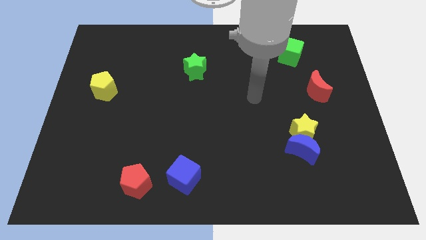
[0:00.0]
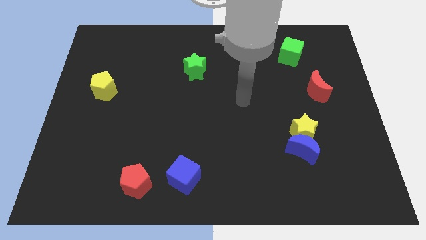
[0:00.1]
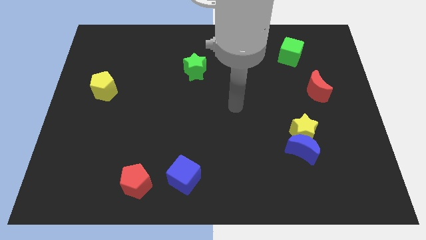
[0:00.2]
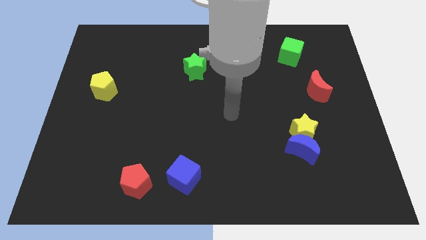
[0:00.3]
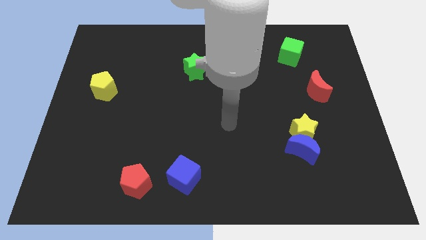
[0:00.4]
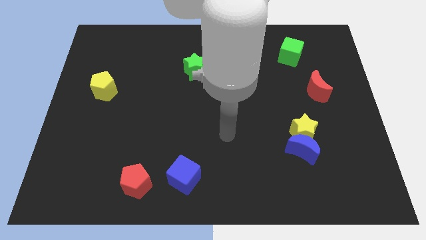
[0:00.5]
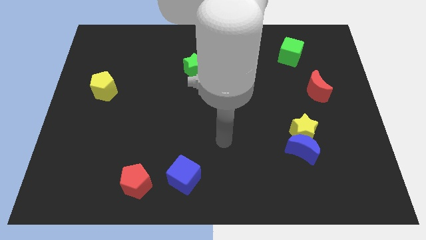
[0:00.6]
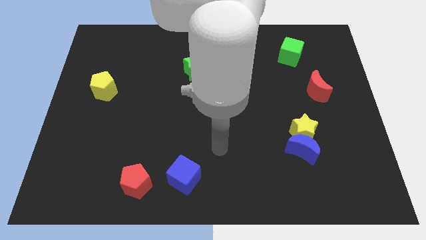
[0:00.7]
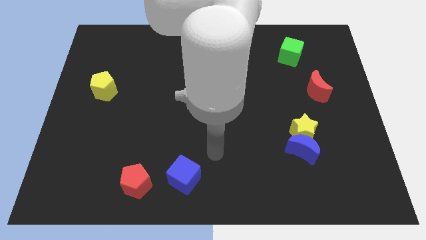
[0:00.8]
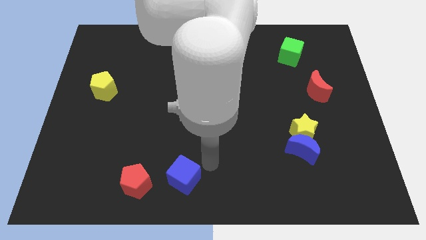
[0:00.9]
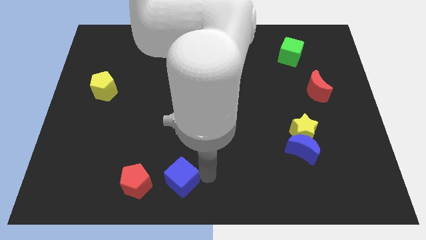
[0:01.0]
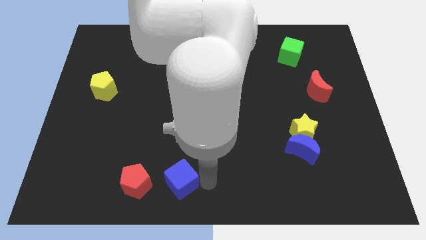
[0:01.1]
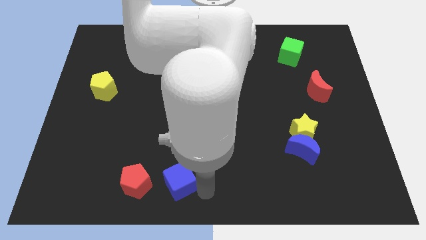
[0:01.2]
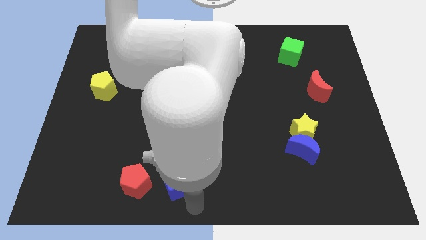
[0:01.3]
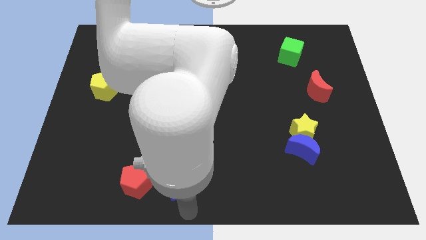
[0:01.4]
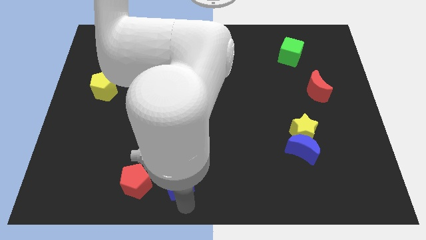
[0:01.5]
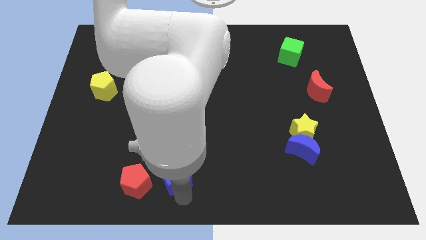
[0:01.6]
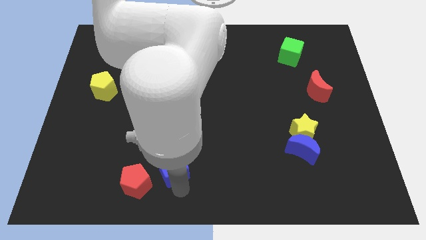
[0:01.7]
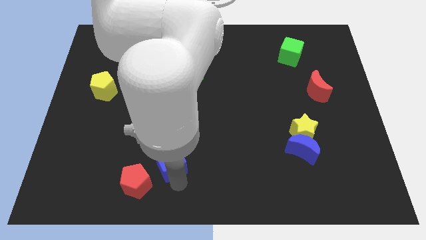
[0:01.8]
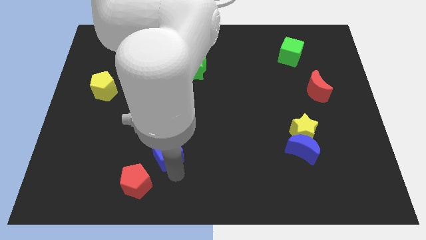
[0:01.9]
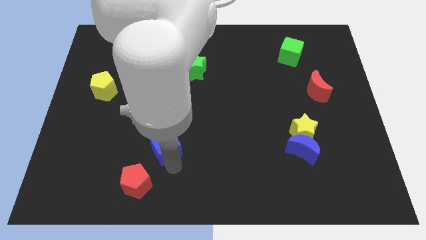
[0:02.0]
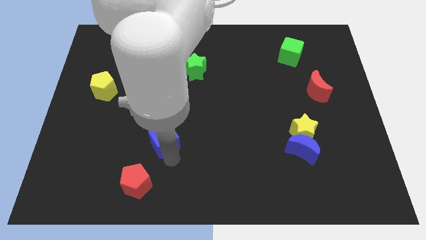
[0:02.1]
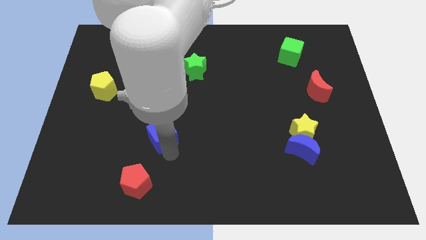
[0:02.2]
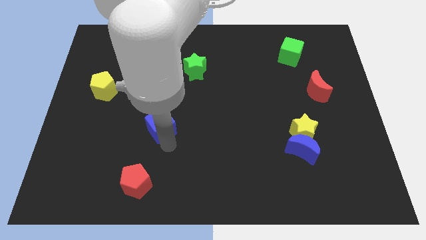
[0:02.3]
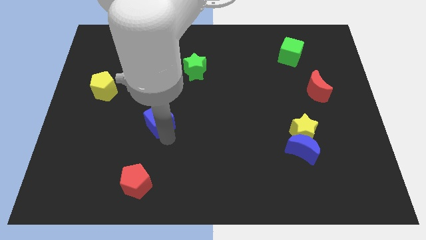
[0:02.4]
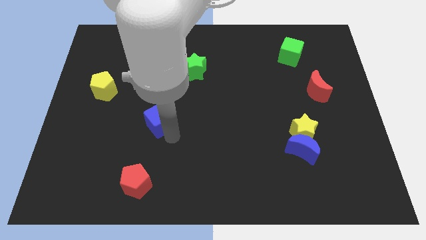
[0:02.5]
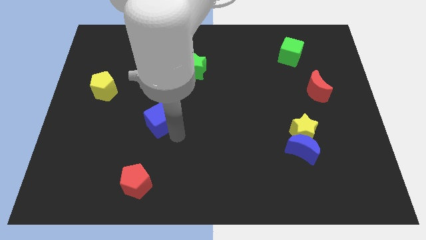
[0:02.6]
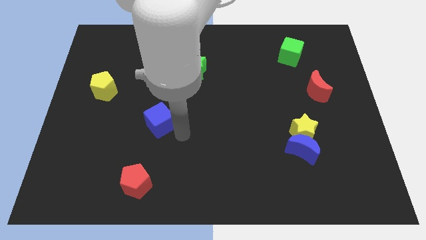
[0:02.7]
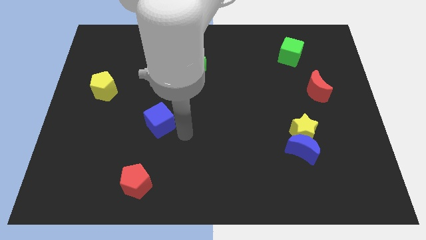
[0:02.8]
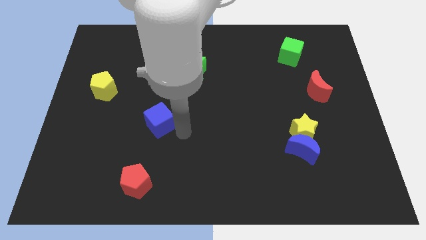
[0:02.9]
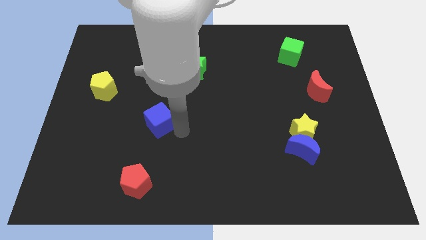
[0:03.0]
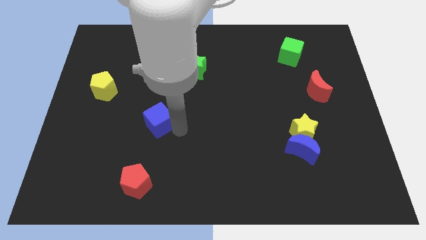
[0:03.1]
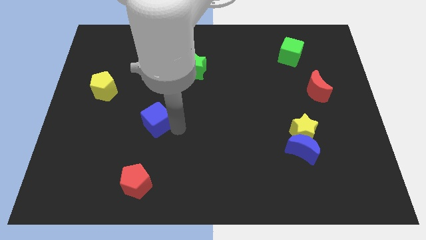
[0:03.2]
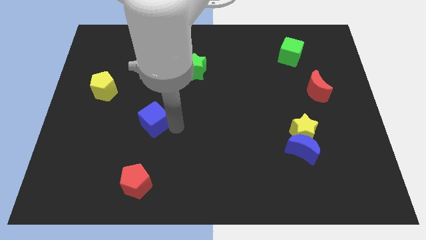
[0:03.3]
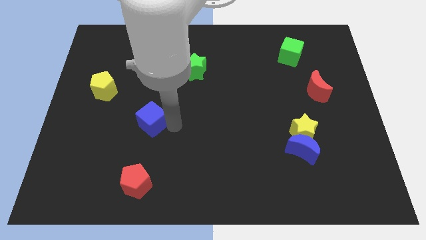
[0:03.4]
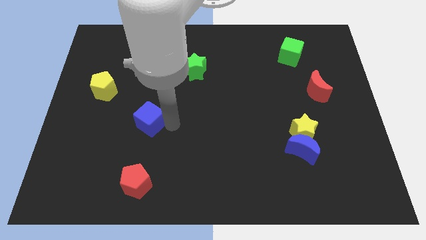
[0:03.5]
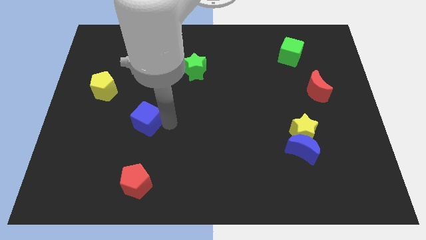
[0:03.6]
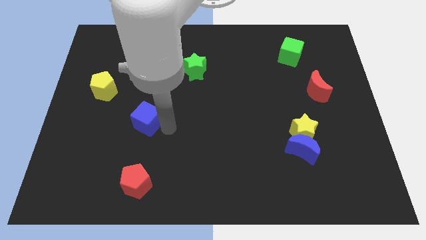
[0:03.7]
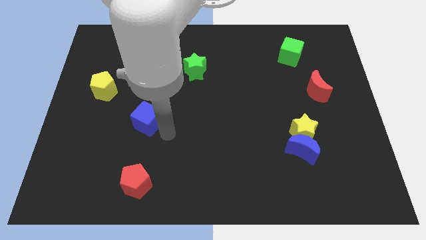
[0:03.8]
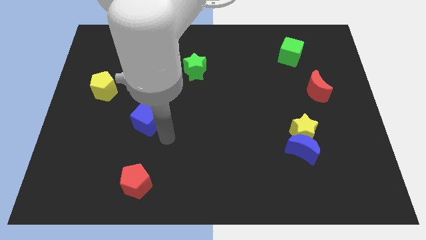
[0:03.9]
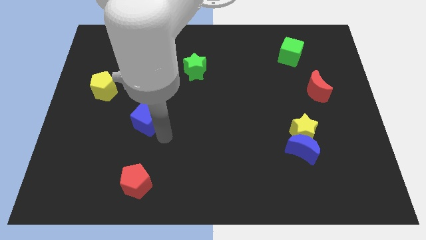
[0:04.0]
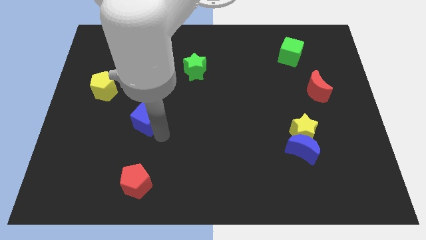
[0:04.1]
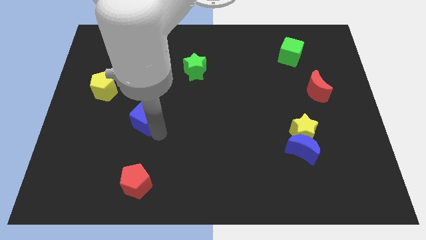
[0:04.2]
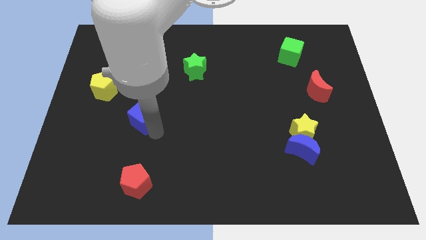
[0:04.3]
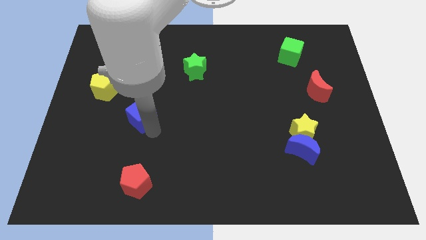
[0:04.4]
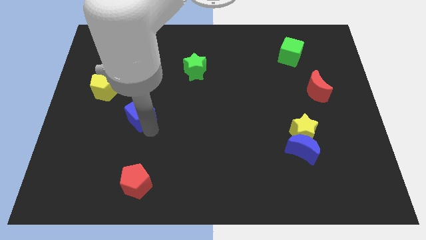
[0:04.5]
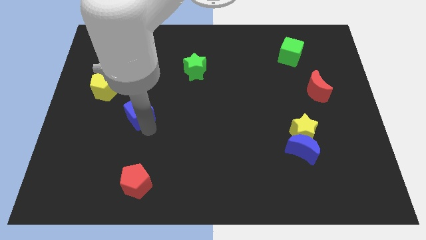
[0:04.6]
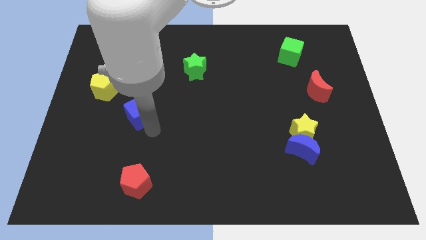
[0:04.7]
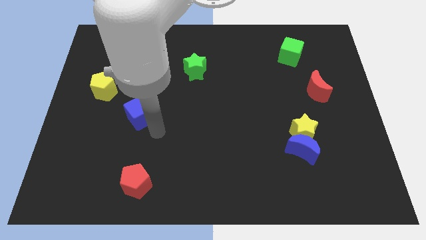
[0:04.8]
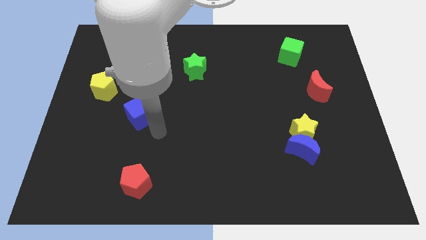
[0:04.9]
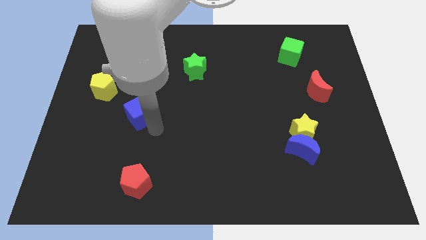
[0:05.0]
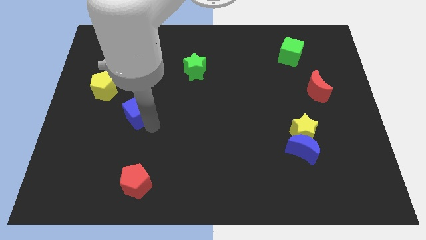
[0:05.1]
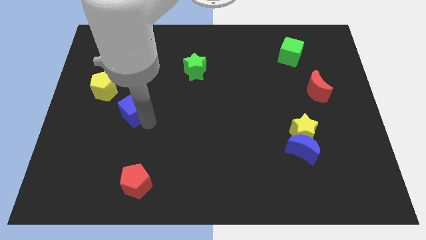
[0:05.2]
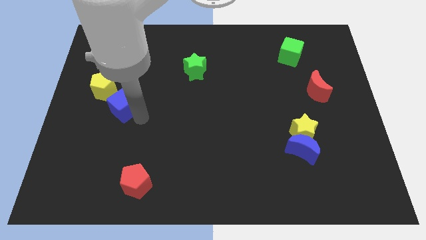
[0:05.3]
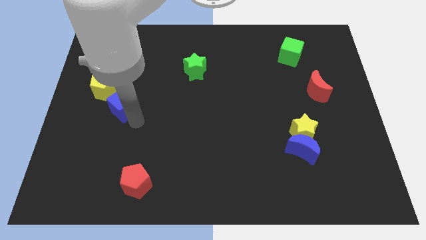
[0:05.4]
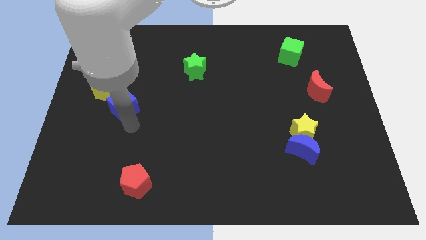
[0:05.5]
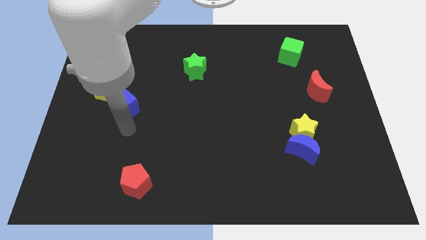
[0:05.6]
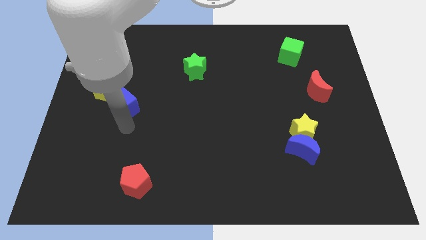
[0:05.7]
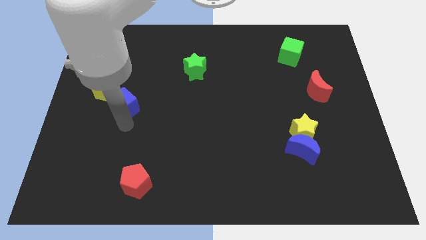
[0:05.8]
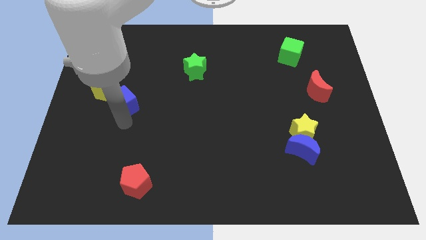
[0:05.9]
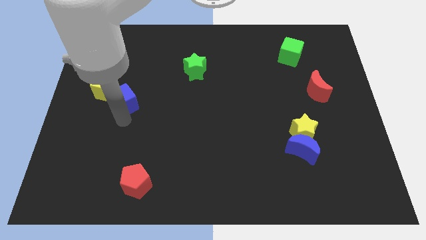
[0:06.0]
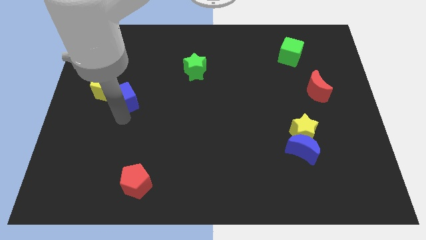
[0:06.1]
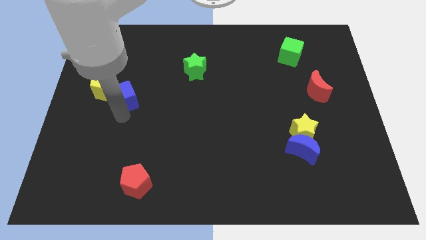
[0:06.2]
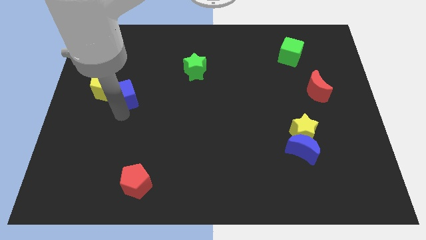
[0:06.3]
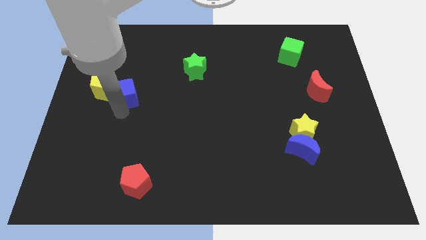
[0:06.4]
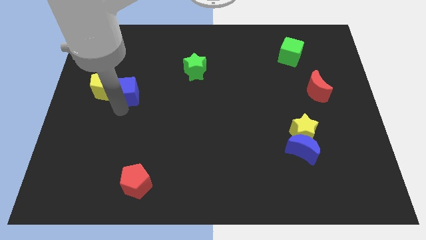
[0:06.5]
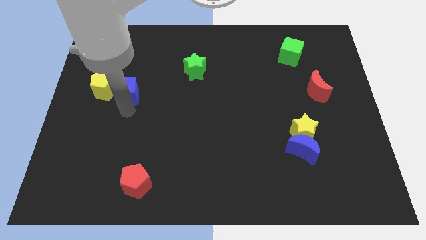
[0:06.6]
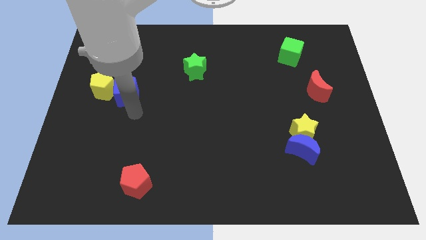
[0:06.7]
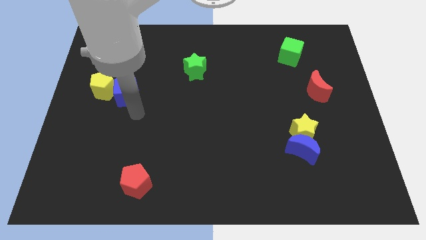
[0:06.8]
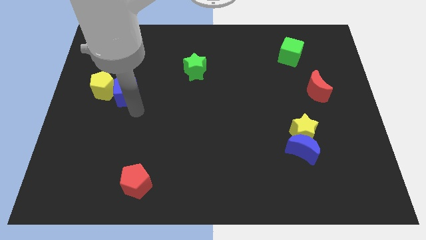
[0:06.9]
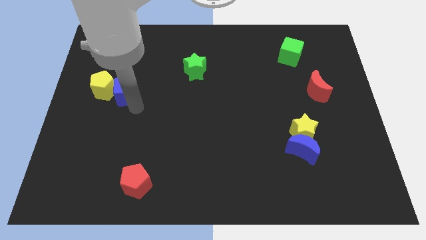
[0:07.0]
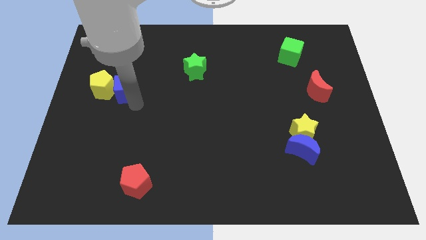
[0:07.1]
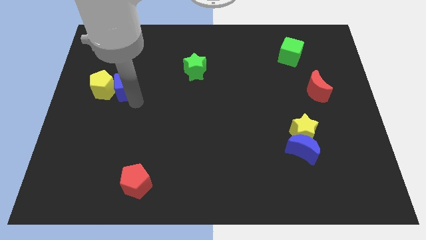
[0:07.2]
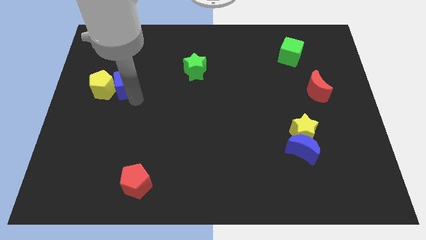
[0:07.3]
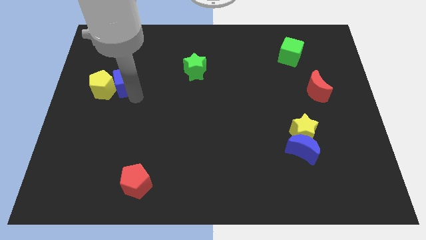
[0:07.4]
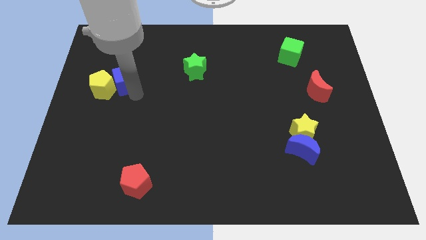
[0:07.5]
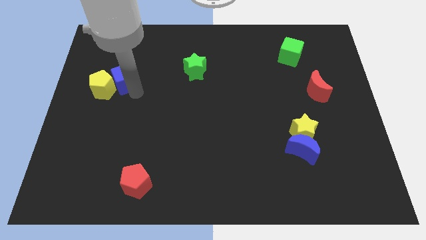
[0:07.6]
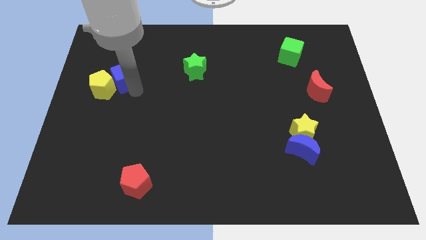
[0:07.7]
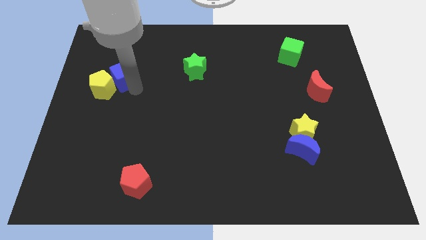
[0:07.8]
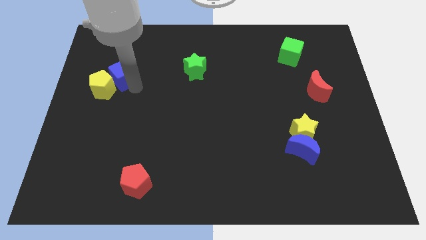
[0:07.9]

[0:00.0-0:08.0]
put the blue cube to the top side of the yellow pentagon
